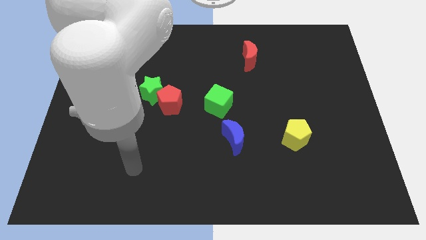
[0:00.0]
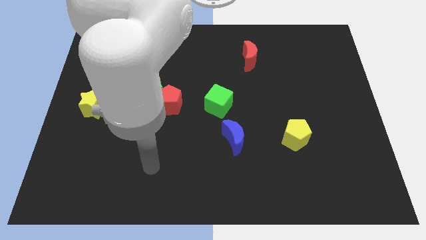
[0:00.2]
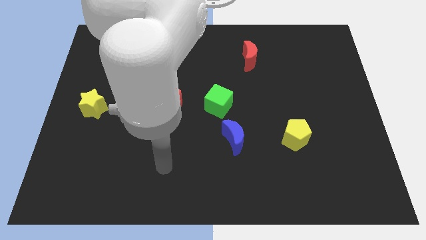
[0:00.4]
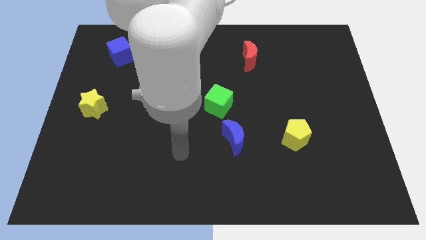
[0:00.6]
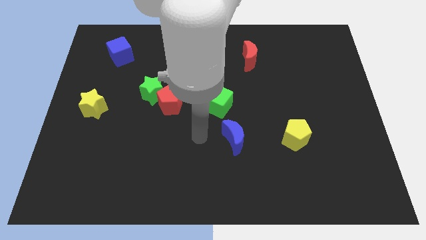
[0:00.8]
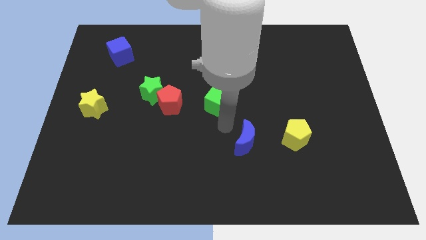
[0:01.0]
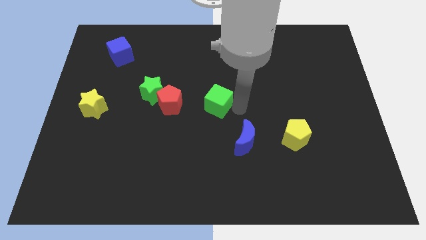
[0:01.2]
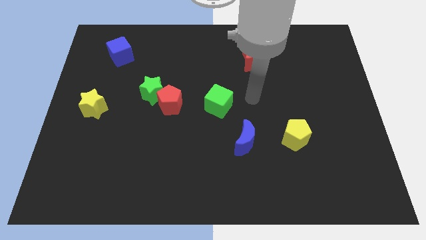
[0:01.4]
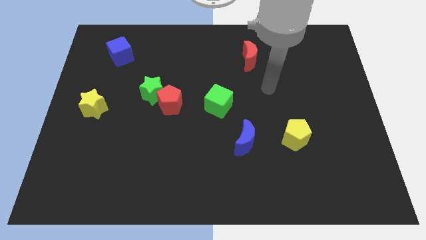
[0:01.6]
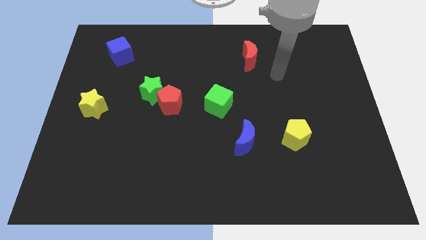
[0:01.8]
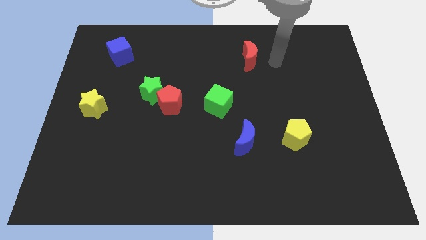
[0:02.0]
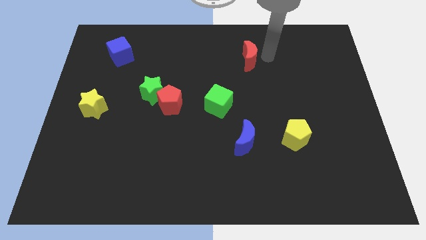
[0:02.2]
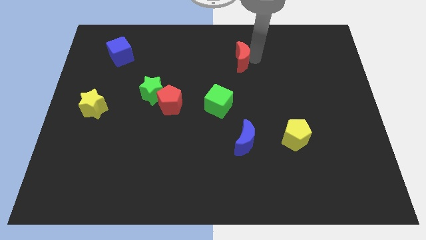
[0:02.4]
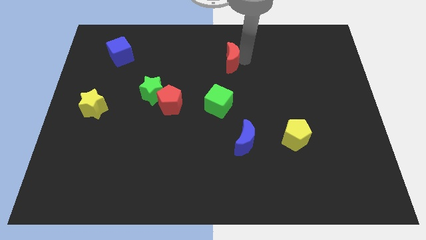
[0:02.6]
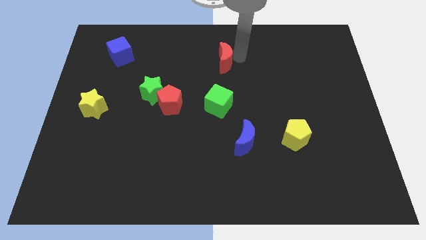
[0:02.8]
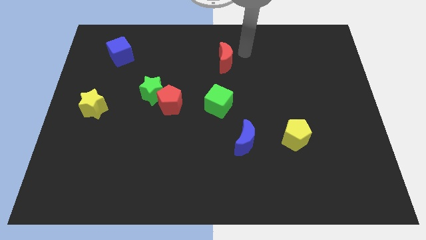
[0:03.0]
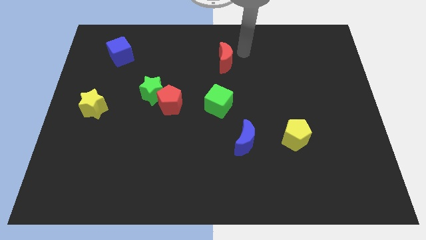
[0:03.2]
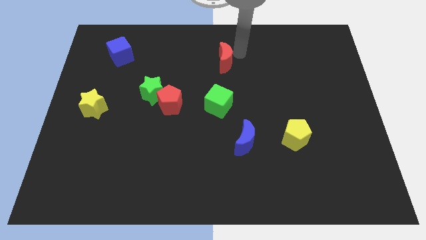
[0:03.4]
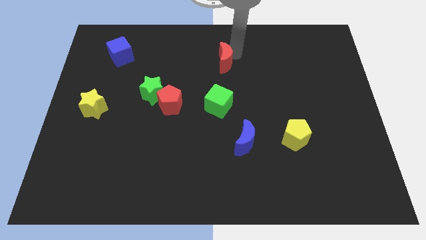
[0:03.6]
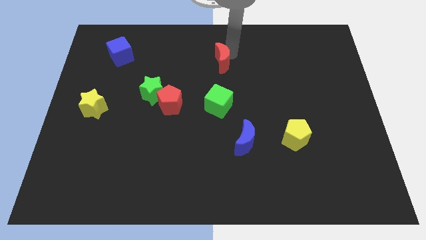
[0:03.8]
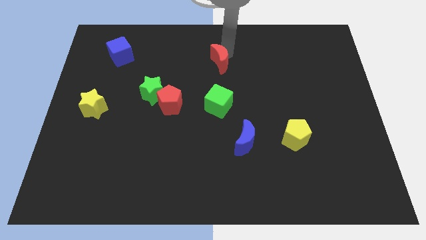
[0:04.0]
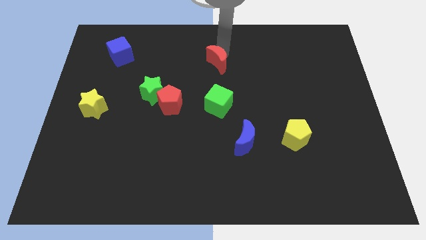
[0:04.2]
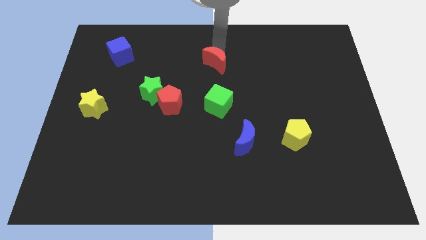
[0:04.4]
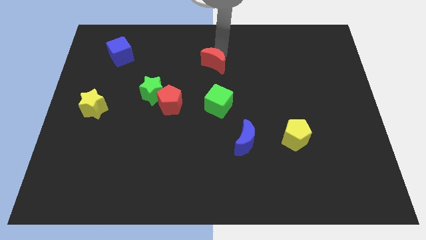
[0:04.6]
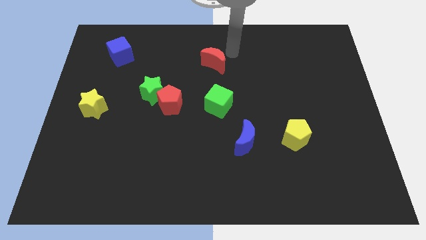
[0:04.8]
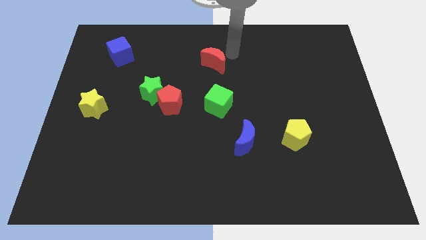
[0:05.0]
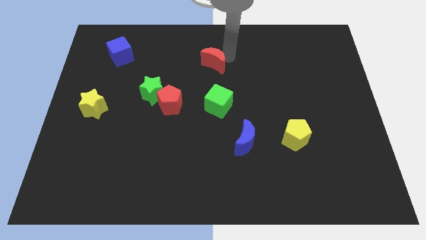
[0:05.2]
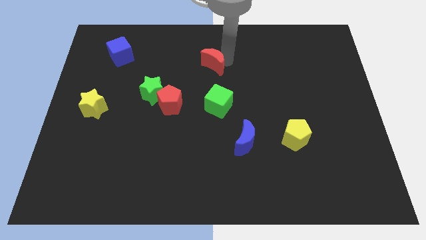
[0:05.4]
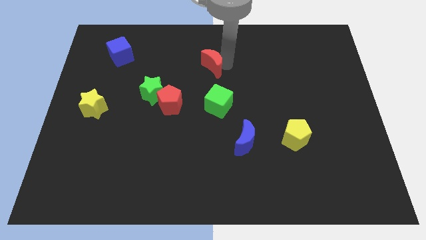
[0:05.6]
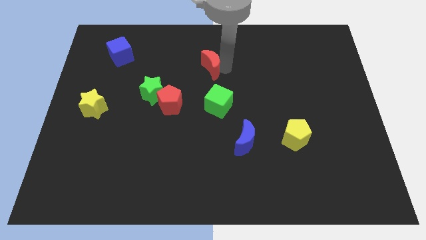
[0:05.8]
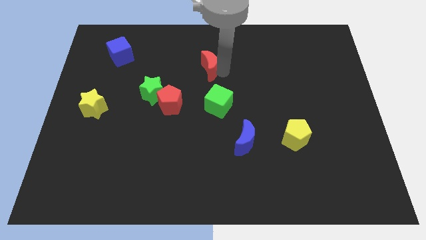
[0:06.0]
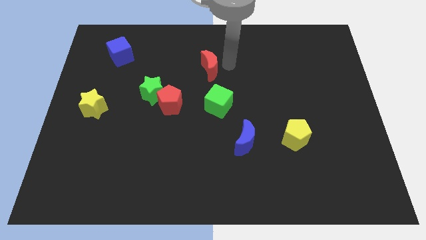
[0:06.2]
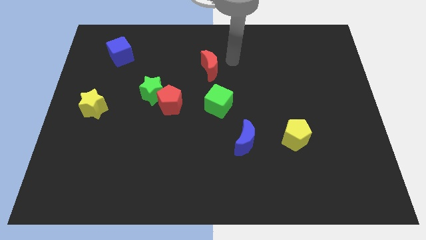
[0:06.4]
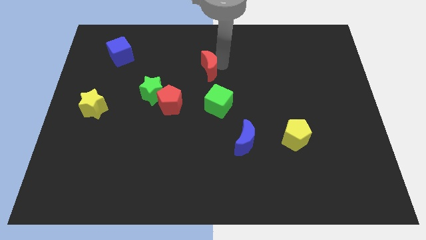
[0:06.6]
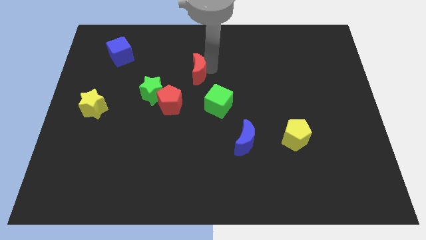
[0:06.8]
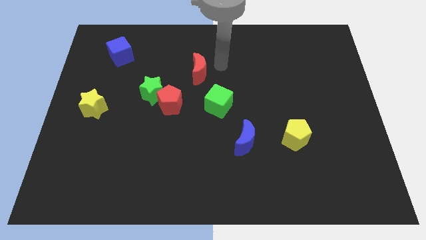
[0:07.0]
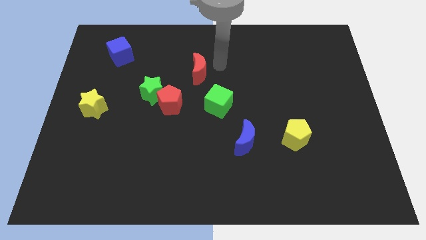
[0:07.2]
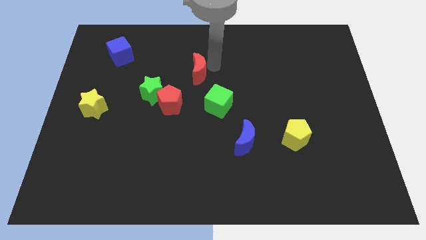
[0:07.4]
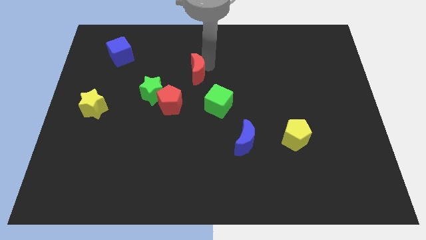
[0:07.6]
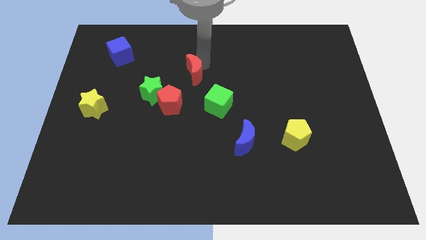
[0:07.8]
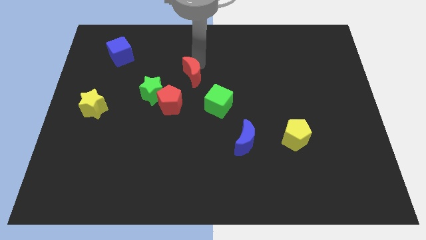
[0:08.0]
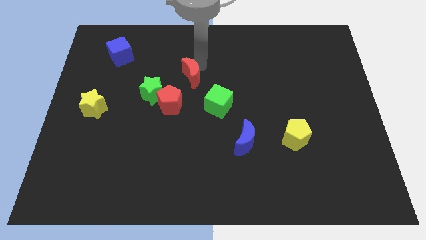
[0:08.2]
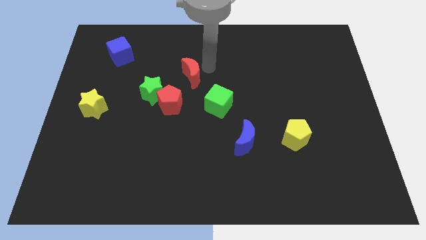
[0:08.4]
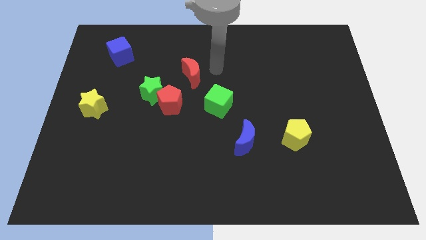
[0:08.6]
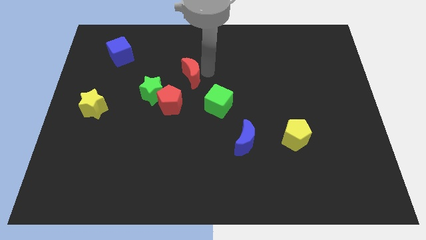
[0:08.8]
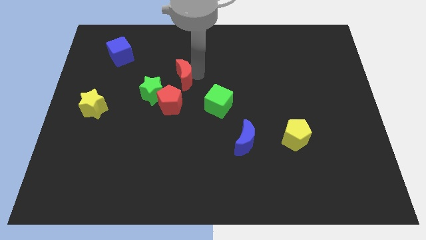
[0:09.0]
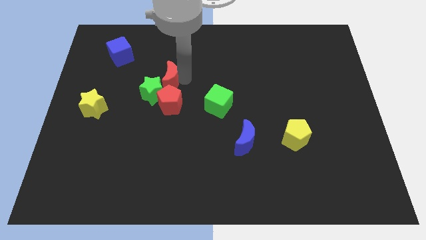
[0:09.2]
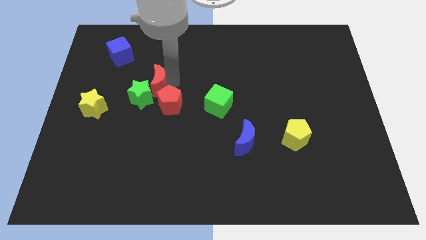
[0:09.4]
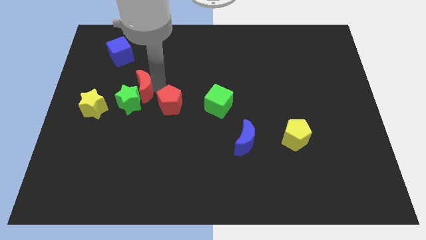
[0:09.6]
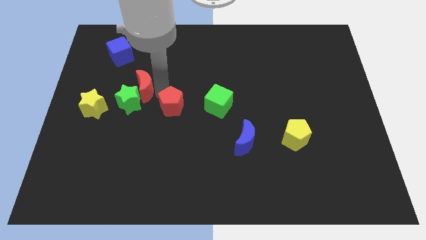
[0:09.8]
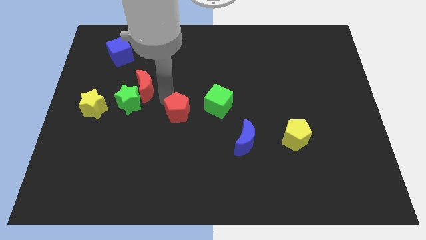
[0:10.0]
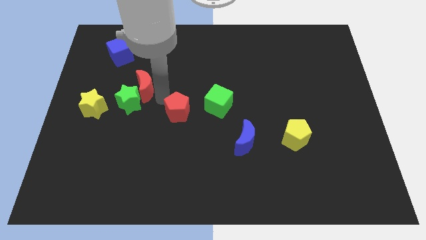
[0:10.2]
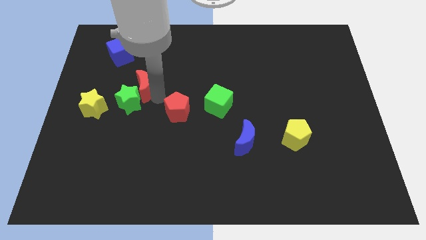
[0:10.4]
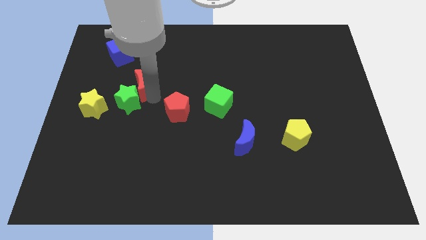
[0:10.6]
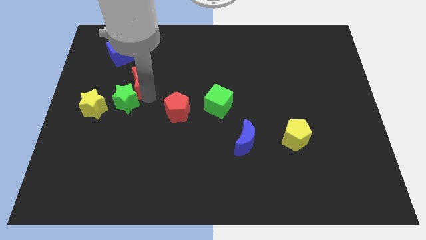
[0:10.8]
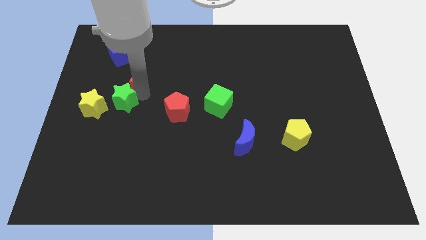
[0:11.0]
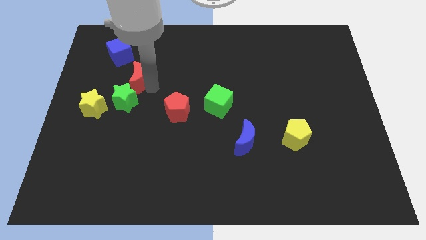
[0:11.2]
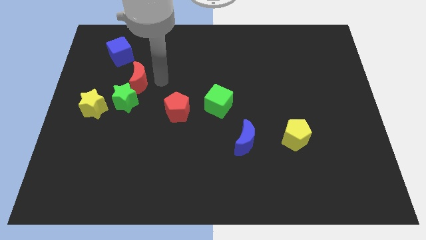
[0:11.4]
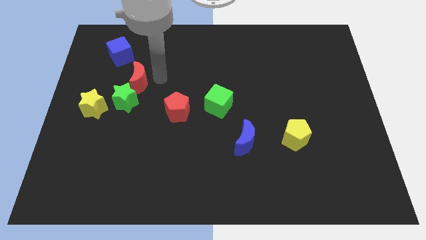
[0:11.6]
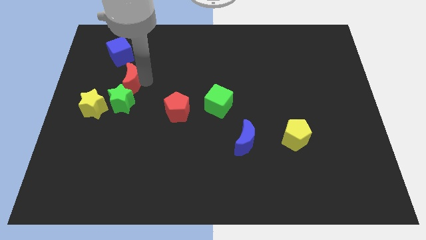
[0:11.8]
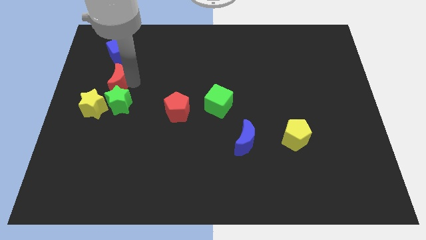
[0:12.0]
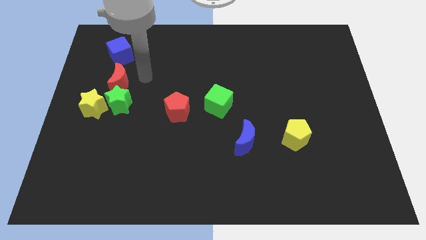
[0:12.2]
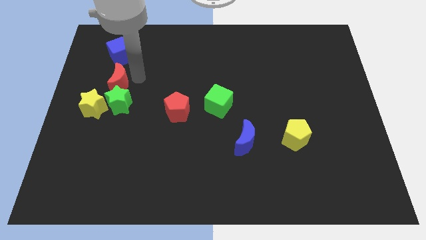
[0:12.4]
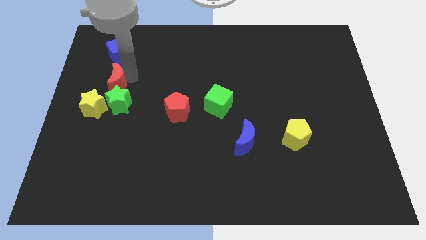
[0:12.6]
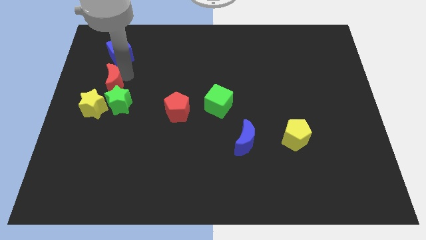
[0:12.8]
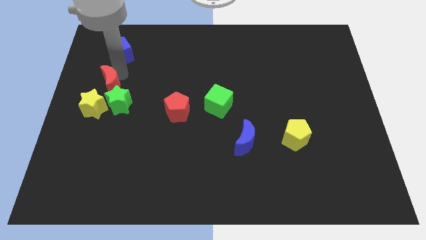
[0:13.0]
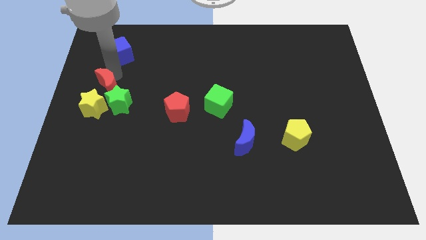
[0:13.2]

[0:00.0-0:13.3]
move the red moon to the left side
